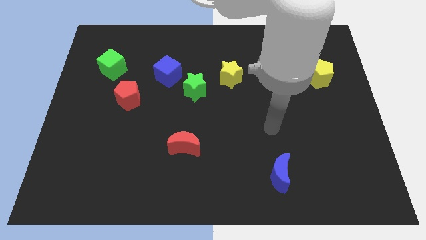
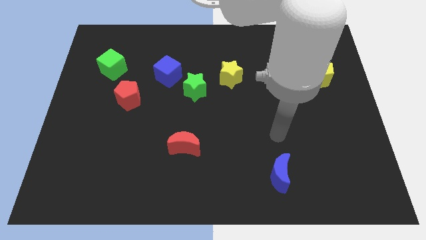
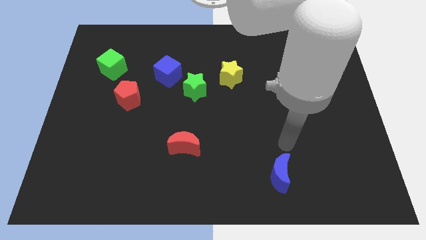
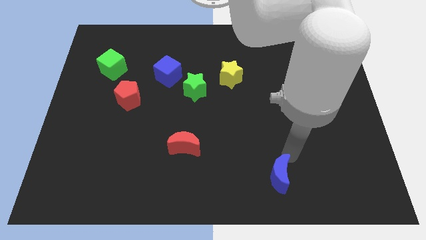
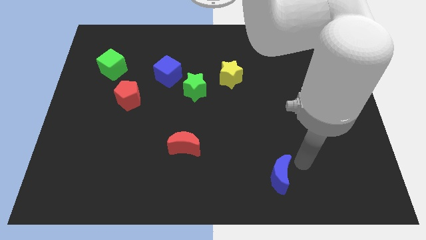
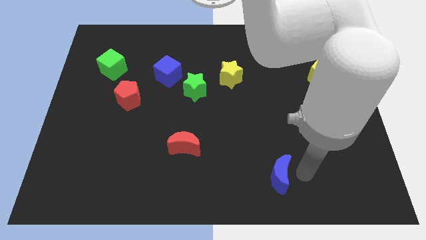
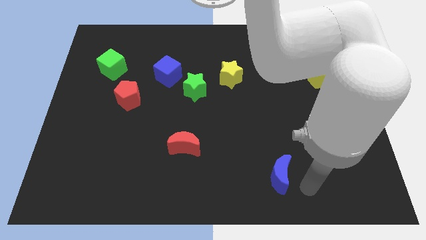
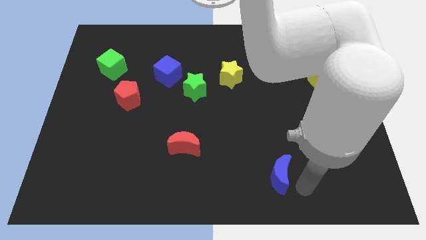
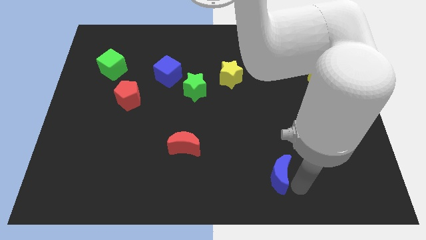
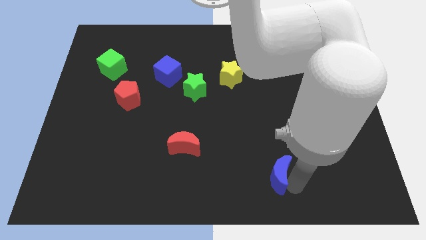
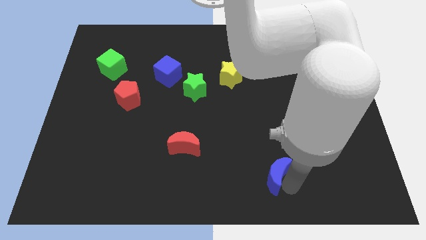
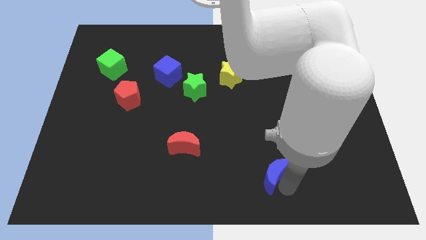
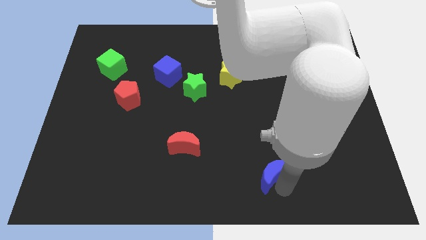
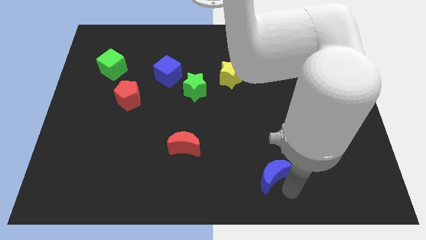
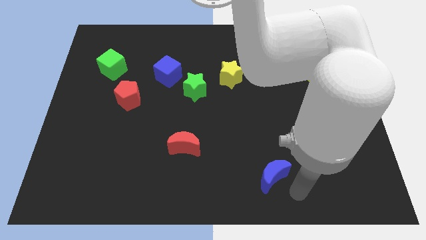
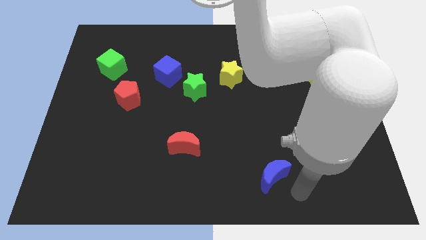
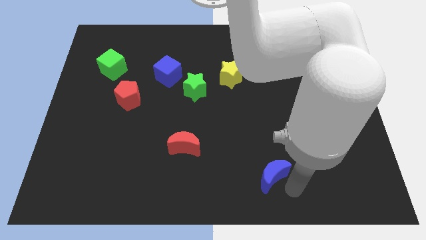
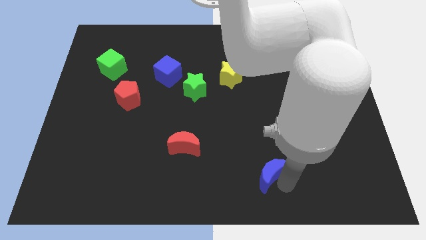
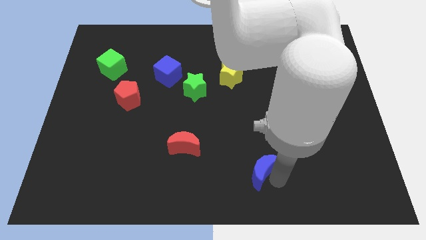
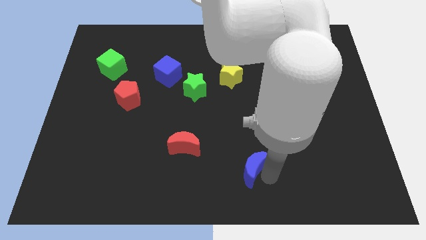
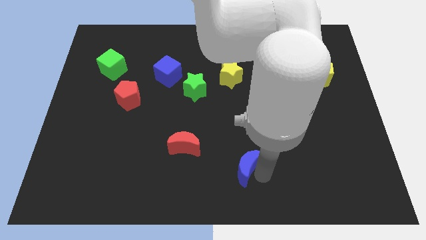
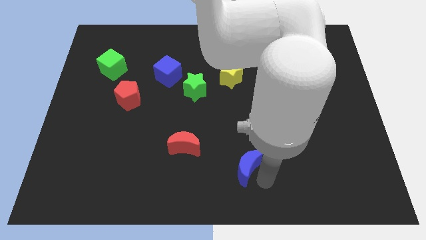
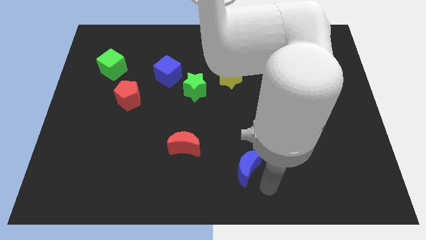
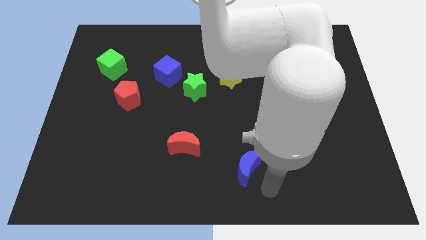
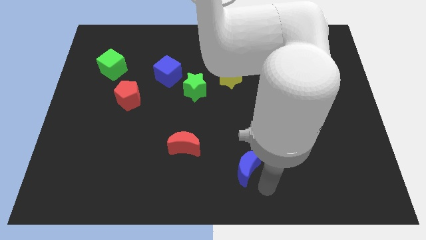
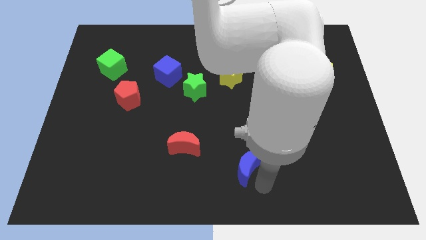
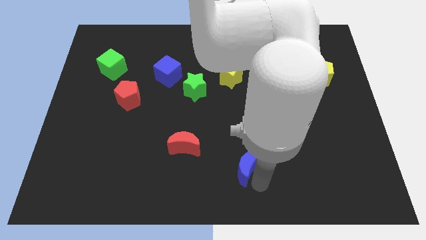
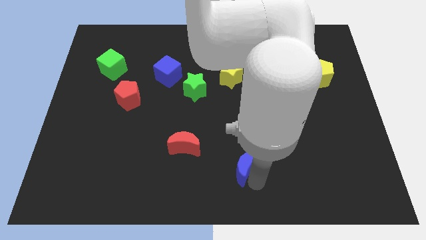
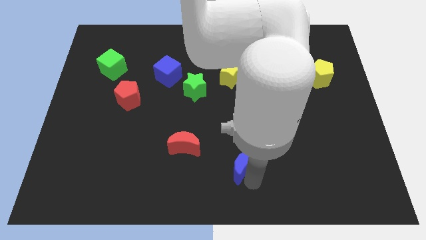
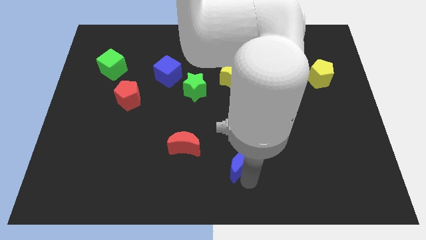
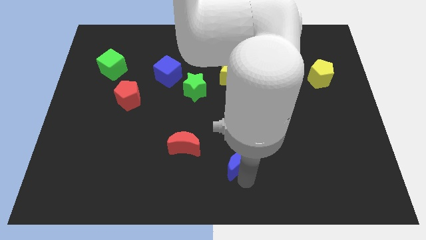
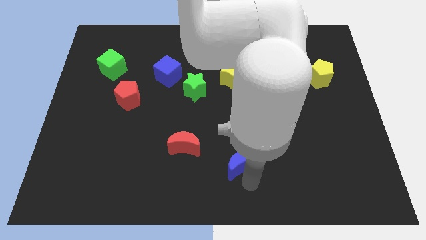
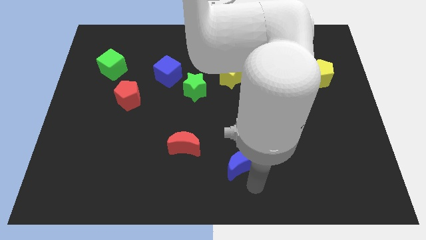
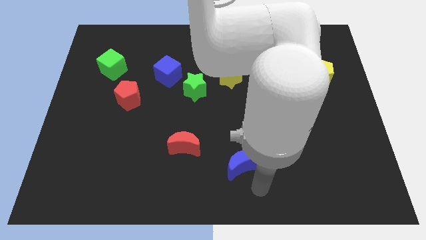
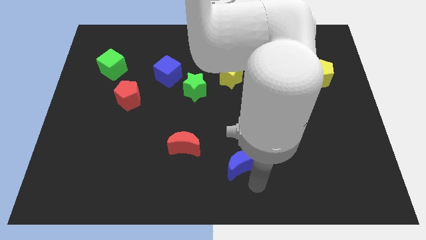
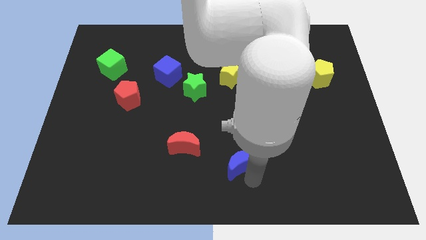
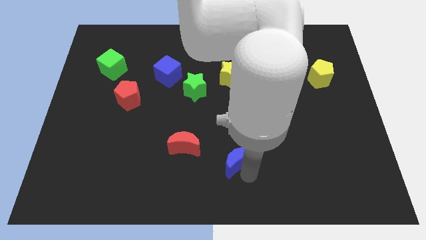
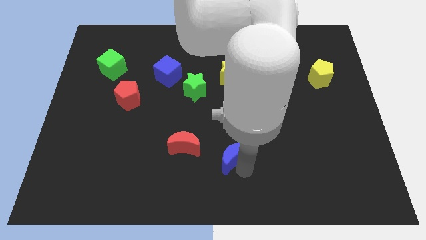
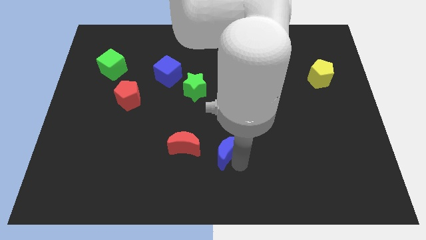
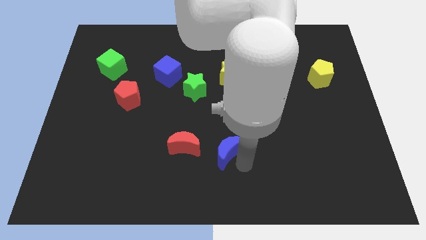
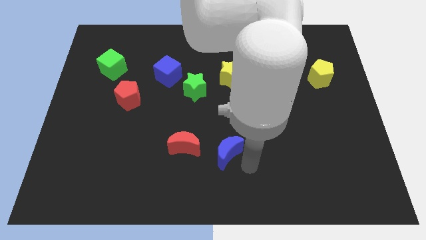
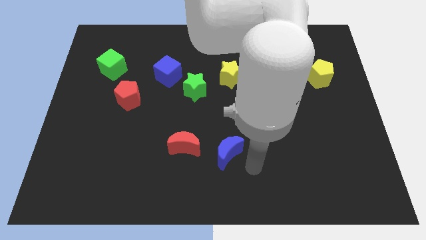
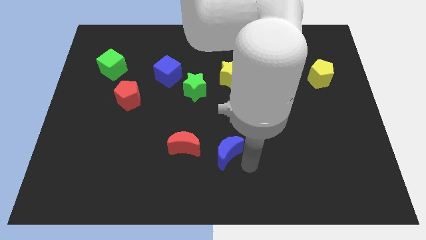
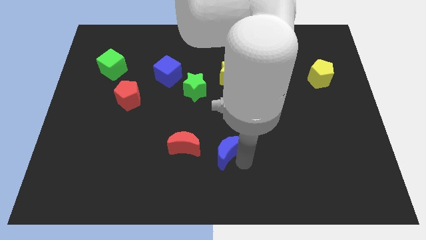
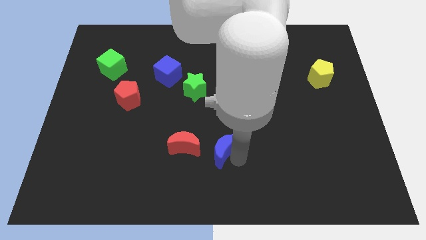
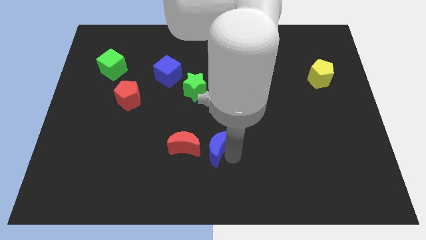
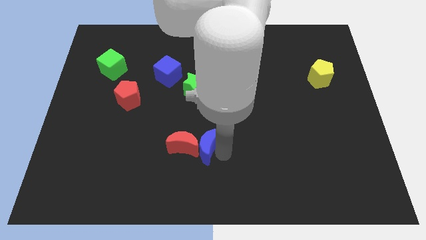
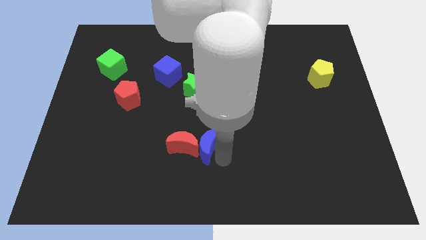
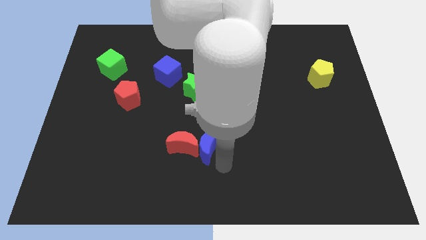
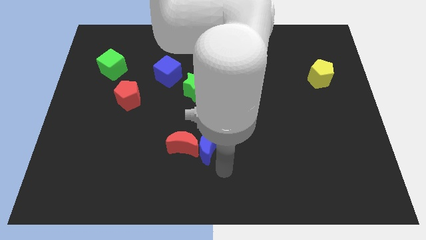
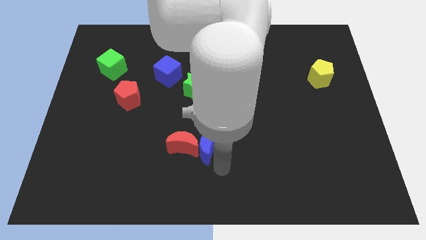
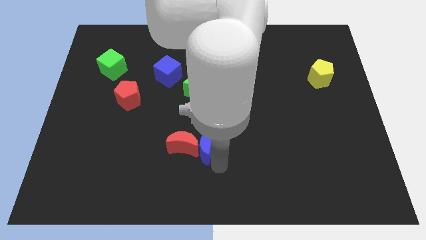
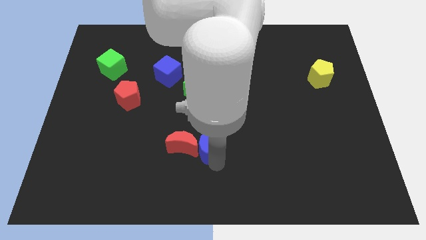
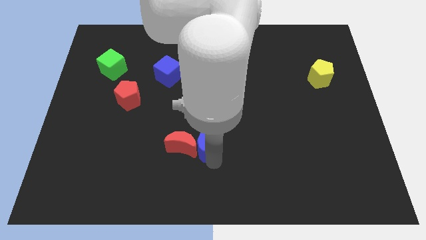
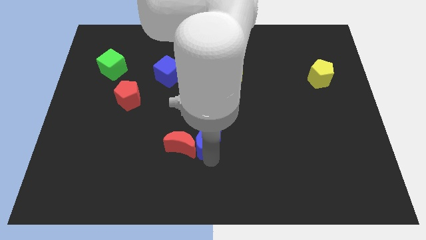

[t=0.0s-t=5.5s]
move the blue moon to the bottom side of the green star
